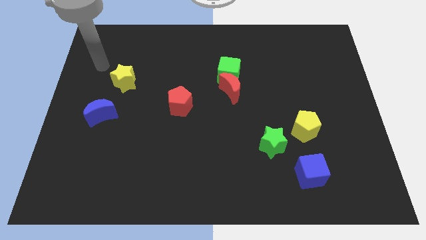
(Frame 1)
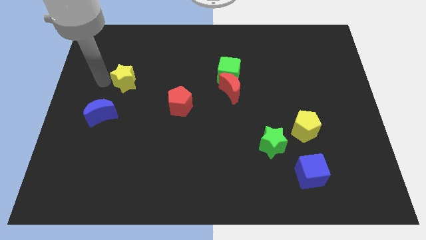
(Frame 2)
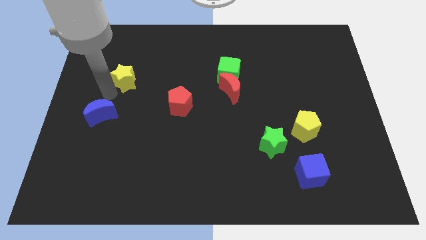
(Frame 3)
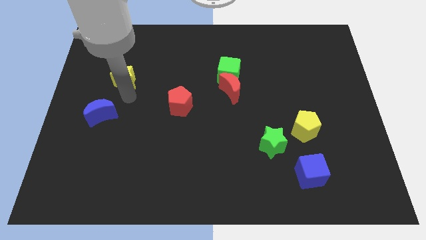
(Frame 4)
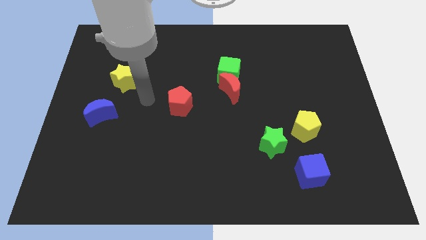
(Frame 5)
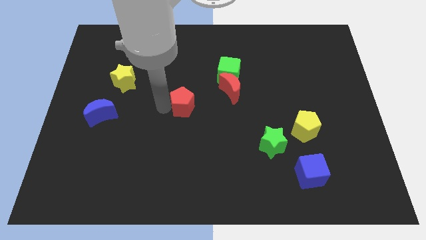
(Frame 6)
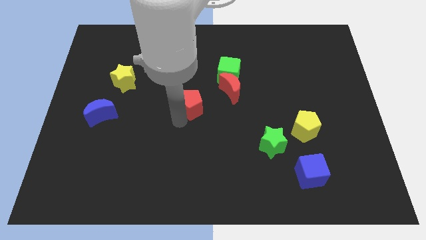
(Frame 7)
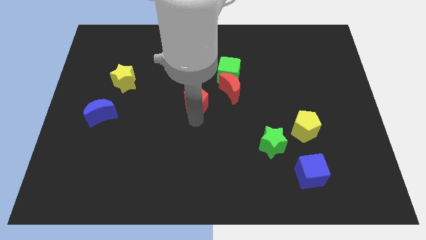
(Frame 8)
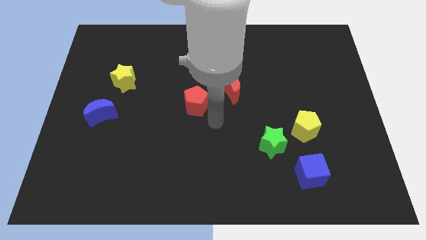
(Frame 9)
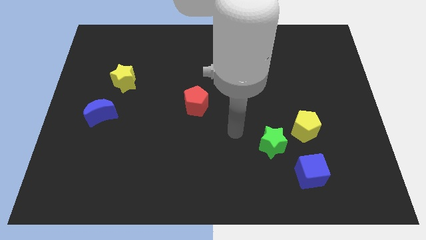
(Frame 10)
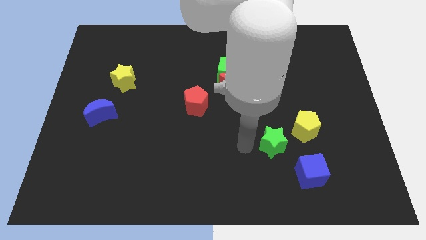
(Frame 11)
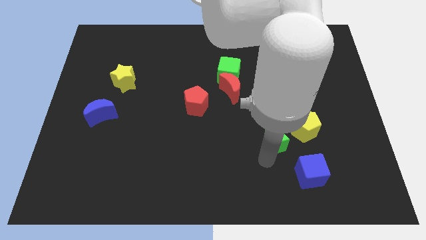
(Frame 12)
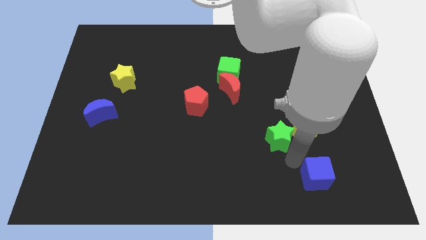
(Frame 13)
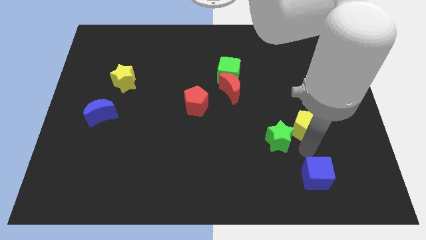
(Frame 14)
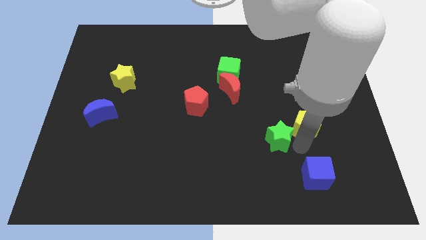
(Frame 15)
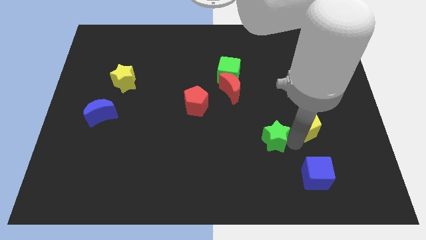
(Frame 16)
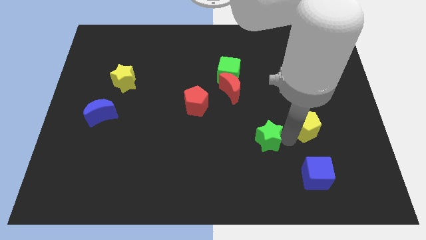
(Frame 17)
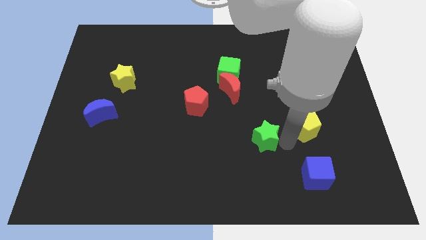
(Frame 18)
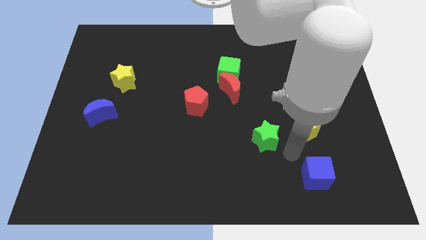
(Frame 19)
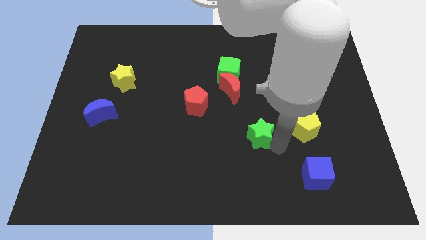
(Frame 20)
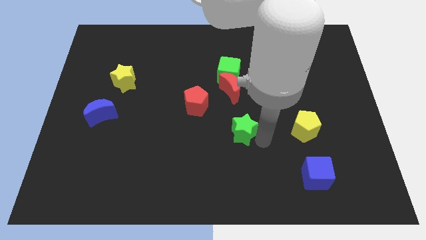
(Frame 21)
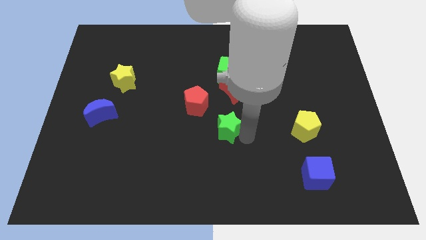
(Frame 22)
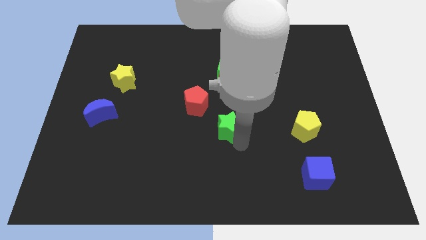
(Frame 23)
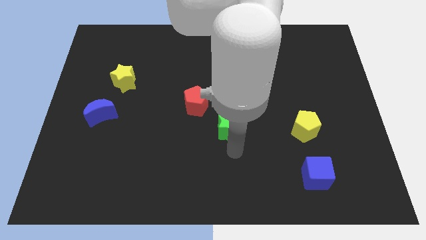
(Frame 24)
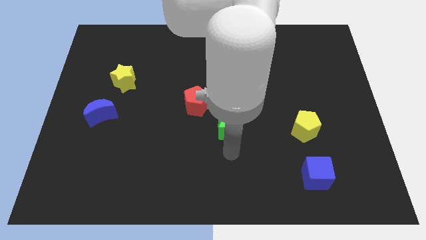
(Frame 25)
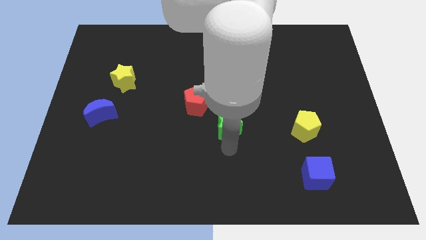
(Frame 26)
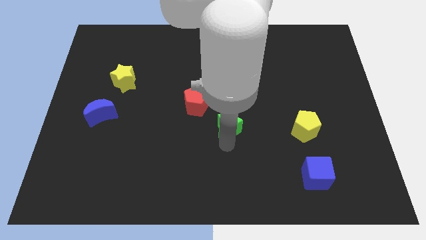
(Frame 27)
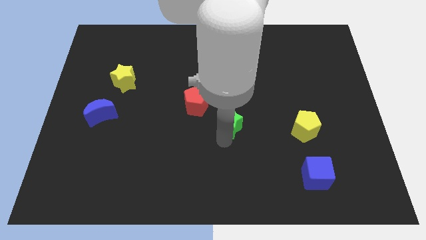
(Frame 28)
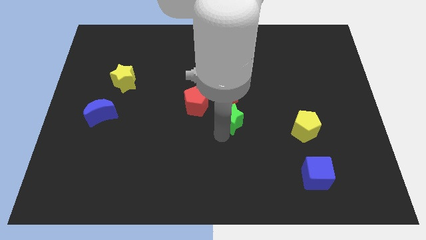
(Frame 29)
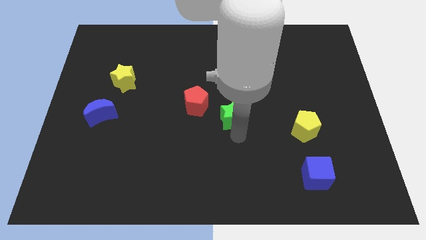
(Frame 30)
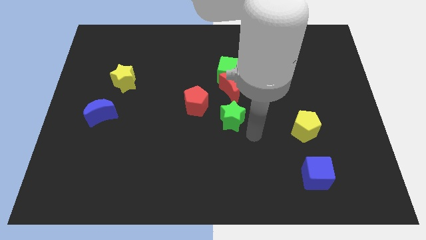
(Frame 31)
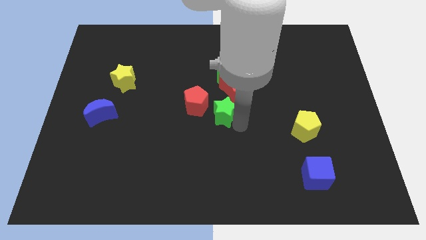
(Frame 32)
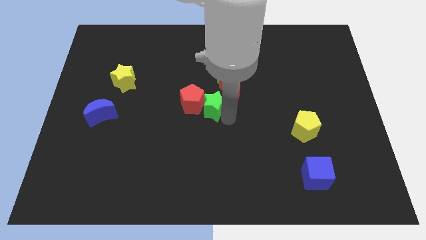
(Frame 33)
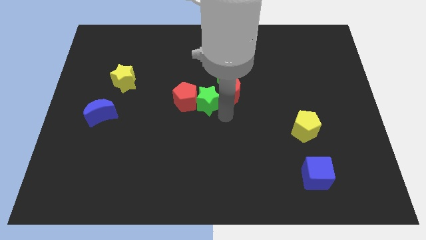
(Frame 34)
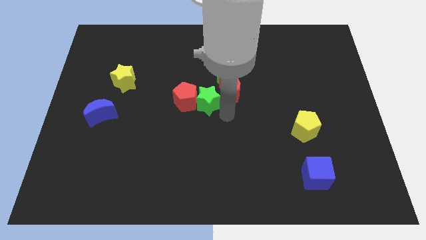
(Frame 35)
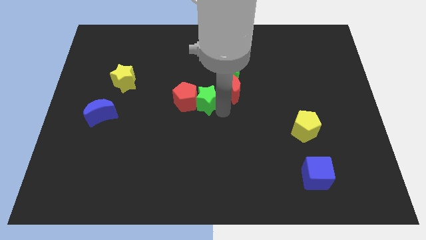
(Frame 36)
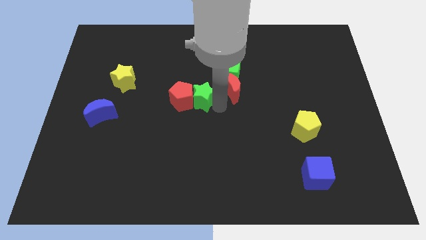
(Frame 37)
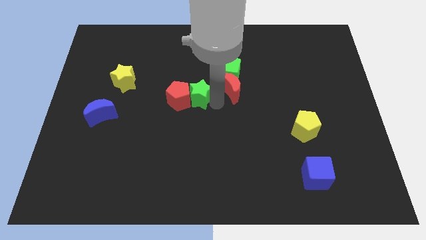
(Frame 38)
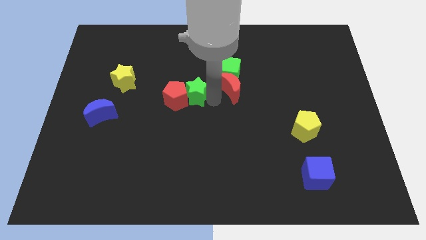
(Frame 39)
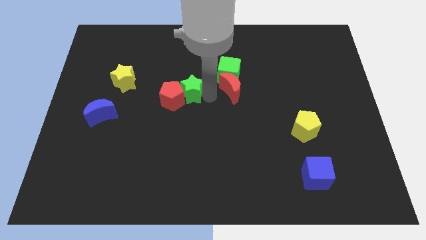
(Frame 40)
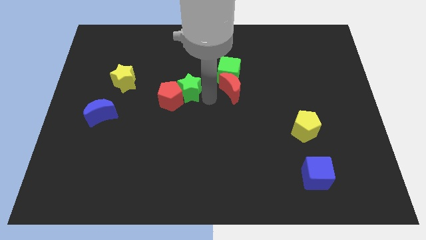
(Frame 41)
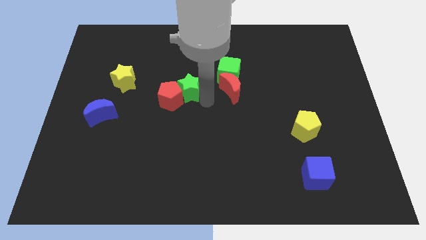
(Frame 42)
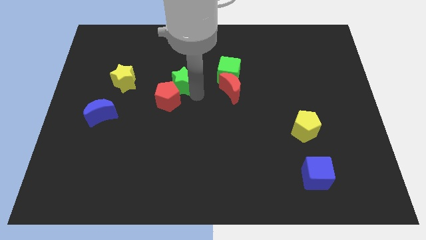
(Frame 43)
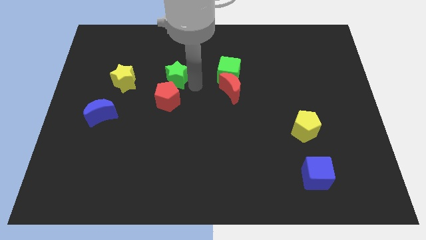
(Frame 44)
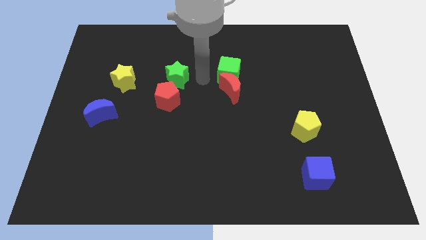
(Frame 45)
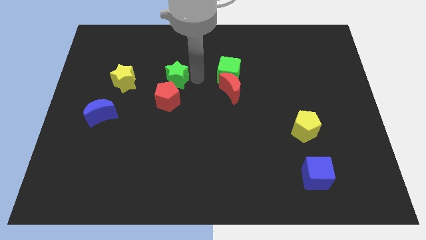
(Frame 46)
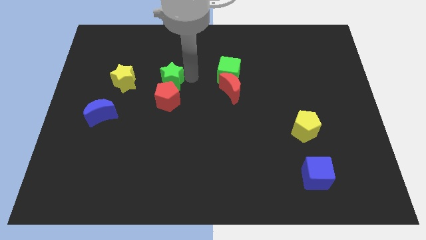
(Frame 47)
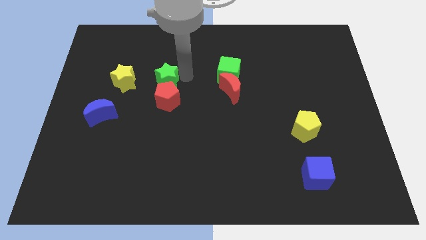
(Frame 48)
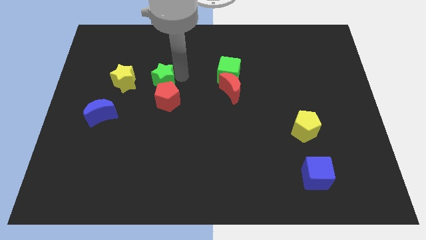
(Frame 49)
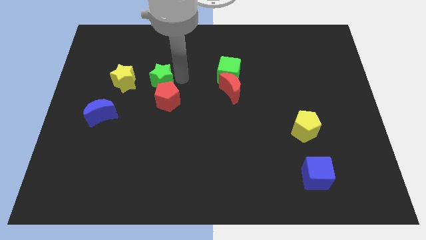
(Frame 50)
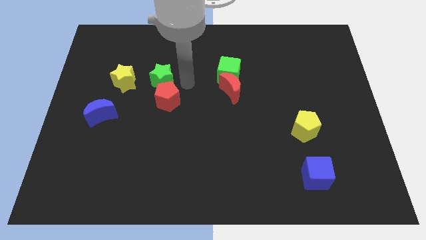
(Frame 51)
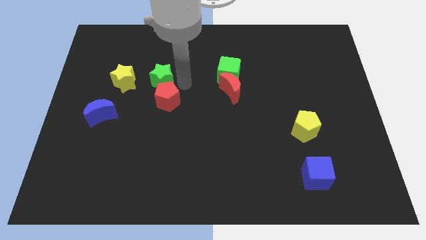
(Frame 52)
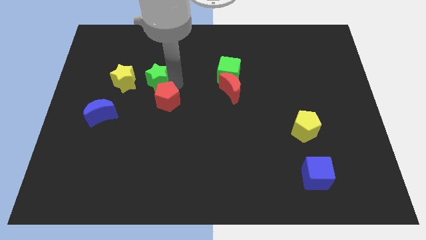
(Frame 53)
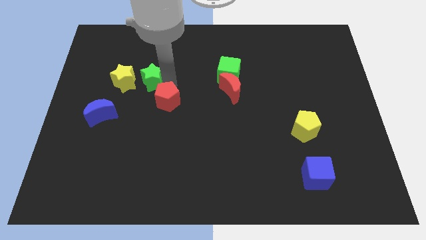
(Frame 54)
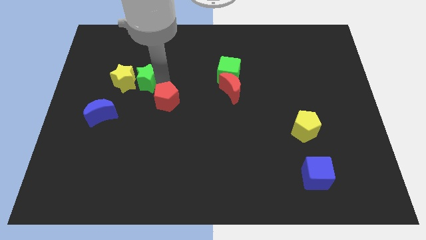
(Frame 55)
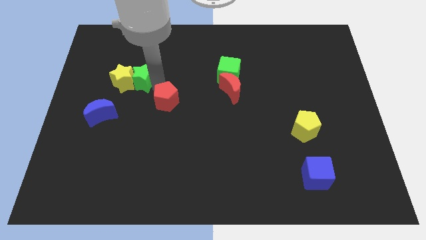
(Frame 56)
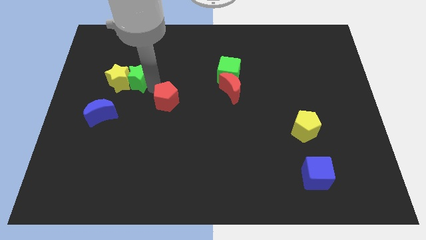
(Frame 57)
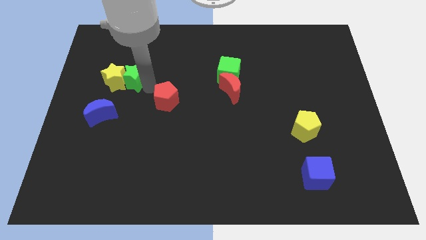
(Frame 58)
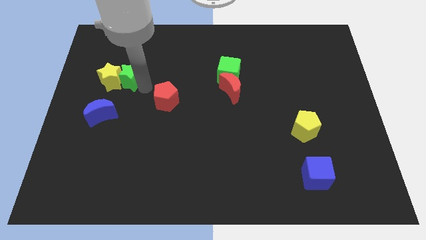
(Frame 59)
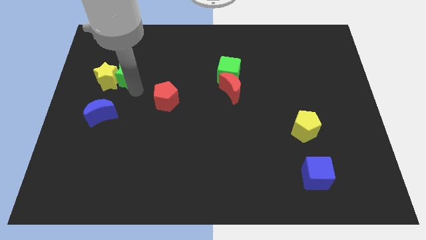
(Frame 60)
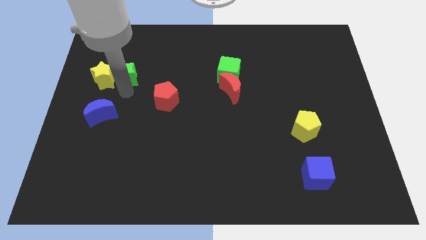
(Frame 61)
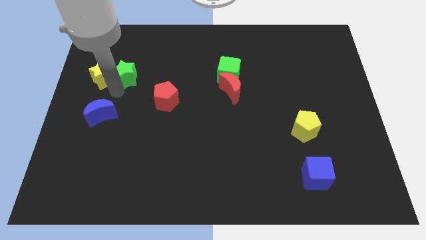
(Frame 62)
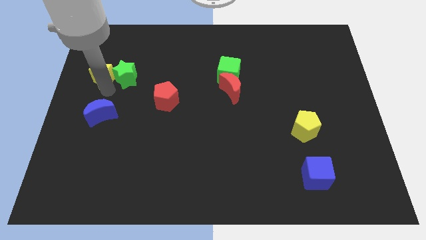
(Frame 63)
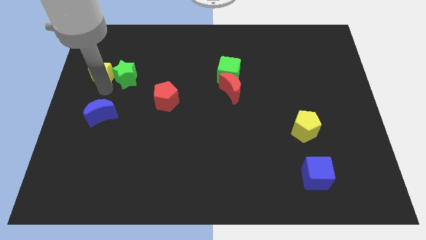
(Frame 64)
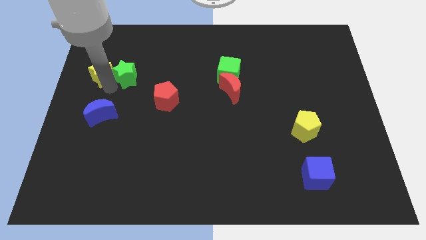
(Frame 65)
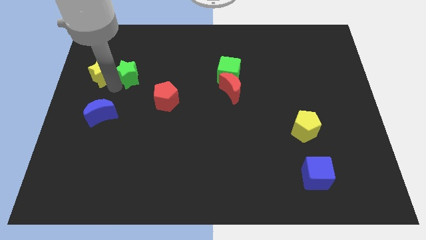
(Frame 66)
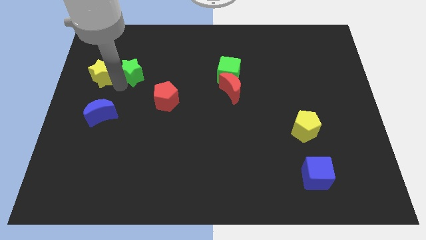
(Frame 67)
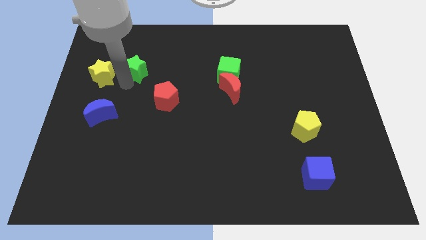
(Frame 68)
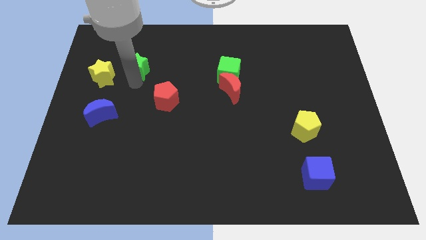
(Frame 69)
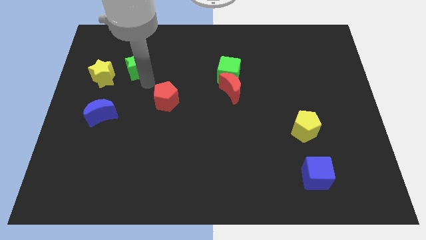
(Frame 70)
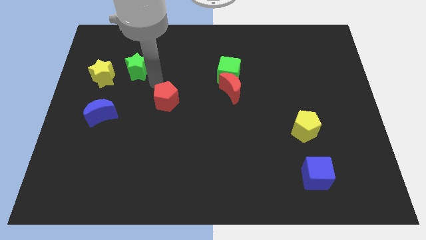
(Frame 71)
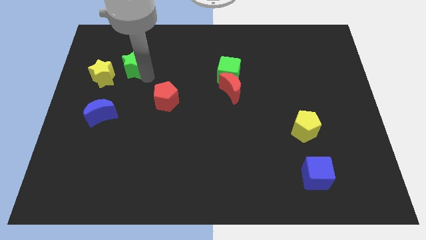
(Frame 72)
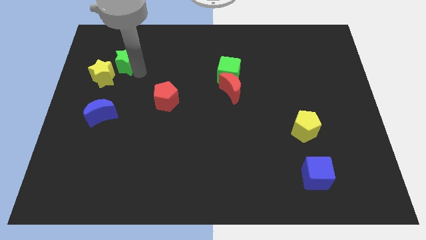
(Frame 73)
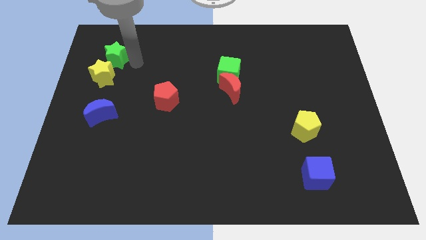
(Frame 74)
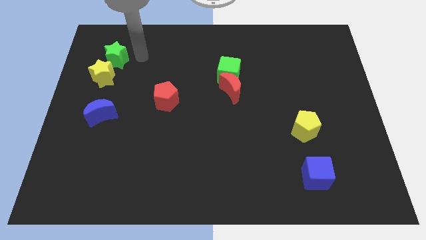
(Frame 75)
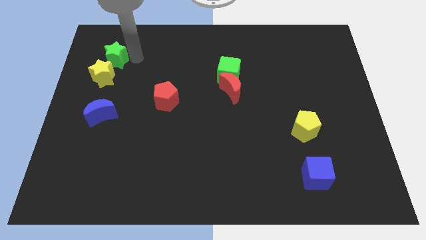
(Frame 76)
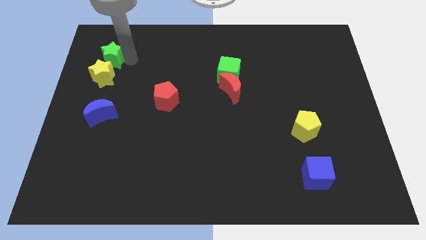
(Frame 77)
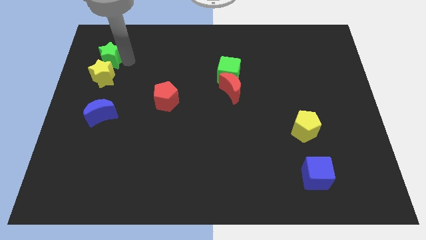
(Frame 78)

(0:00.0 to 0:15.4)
move the green star diagonally up and to the left of the yellow star
